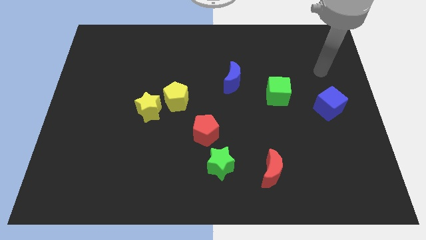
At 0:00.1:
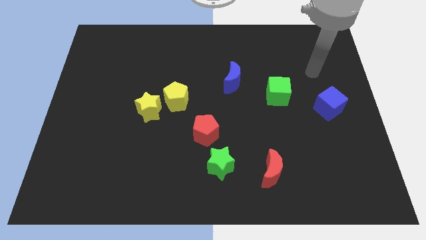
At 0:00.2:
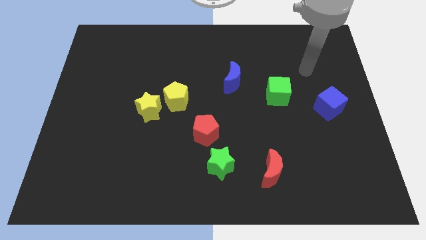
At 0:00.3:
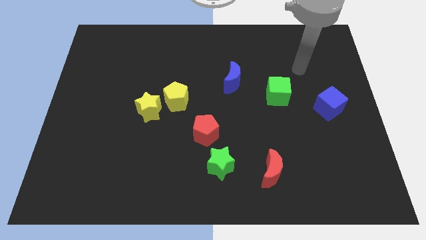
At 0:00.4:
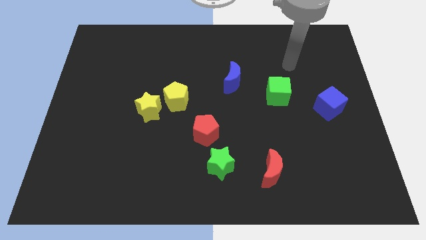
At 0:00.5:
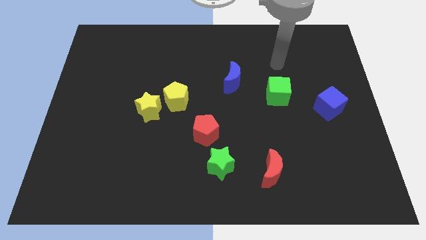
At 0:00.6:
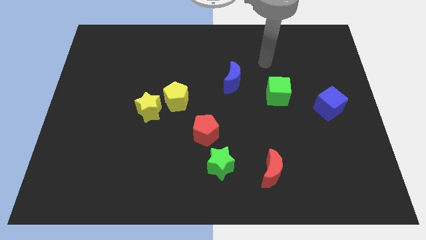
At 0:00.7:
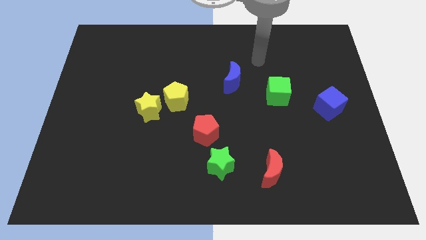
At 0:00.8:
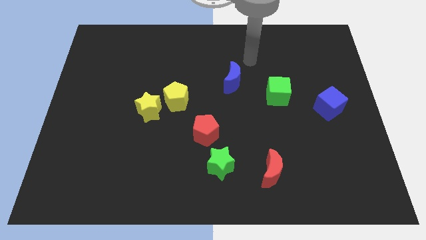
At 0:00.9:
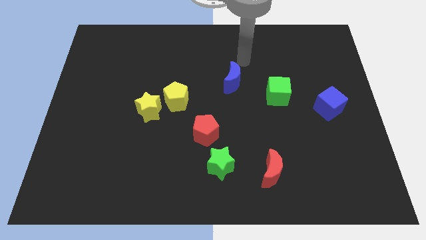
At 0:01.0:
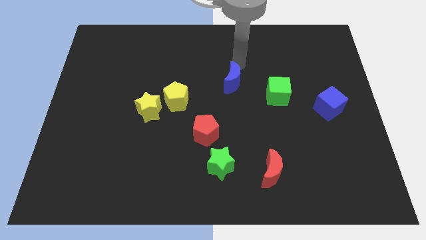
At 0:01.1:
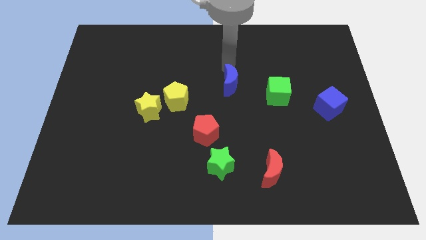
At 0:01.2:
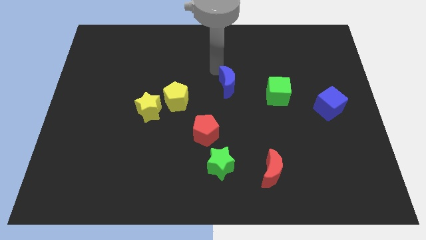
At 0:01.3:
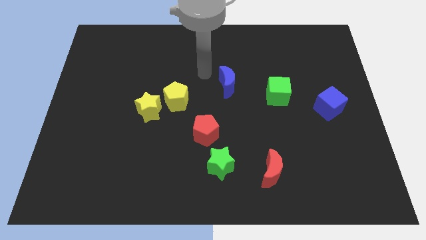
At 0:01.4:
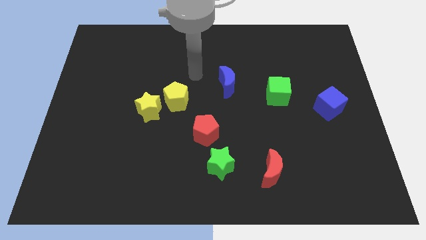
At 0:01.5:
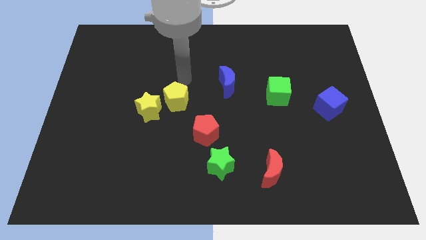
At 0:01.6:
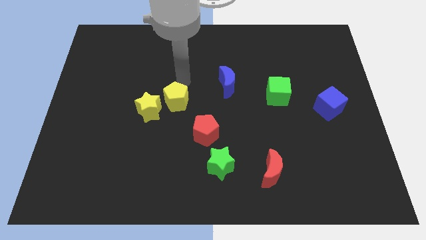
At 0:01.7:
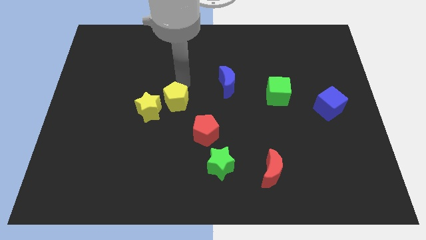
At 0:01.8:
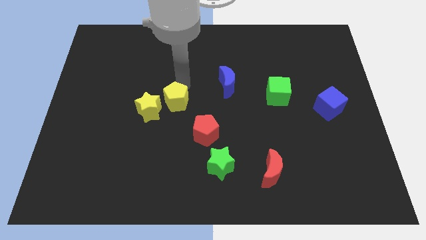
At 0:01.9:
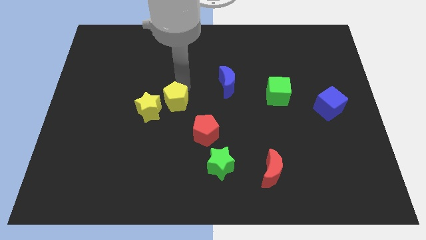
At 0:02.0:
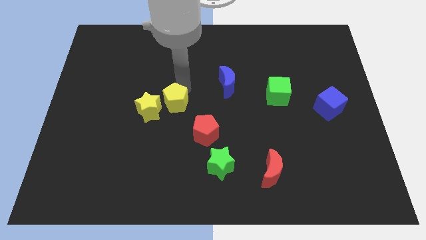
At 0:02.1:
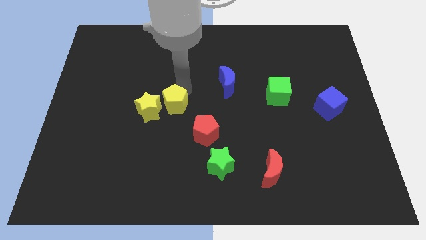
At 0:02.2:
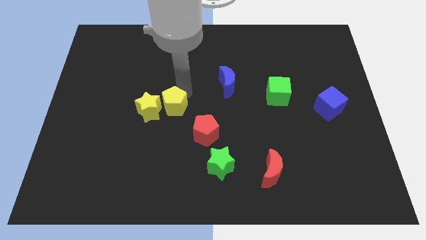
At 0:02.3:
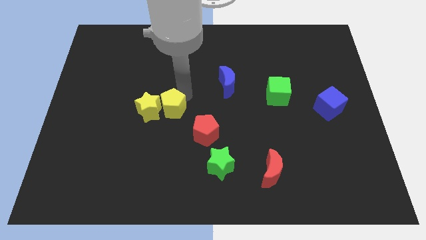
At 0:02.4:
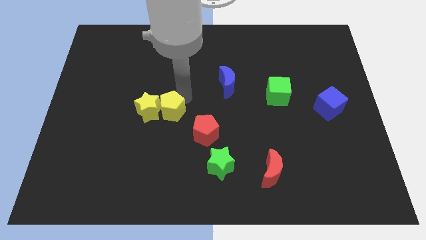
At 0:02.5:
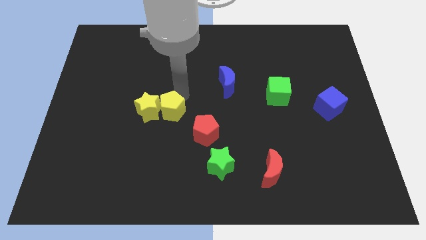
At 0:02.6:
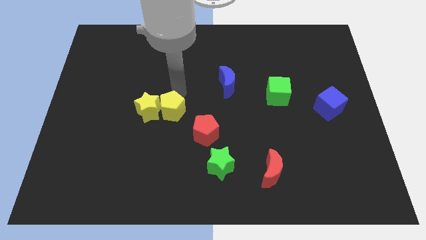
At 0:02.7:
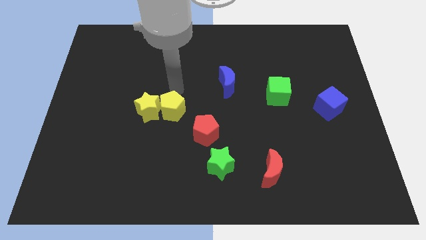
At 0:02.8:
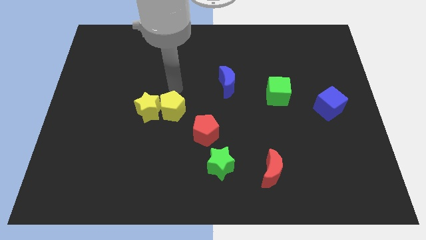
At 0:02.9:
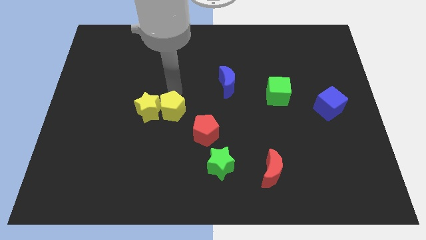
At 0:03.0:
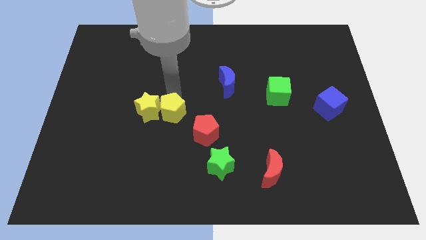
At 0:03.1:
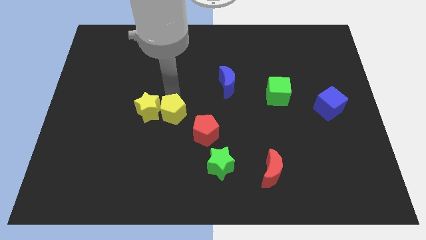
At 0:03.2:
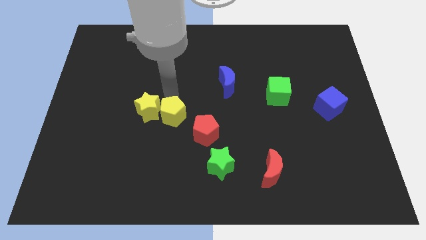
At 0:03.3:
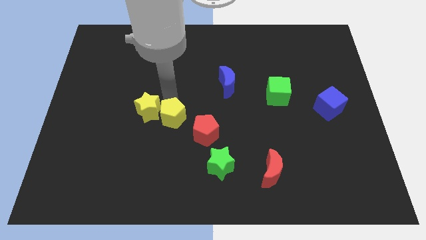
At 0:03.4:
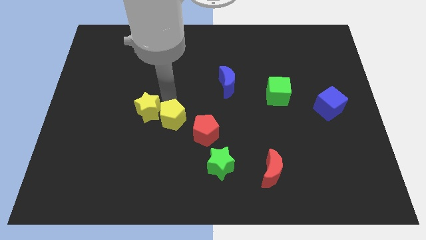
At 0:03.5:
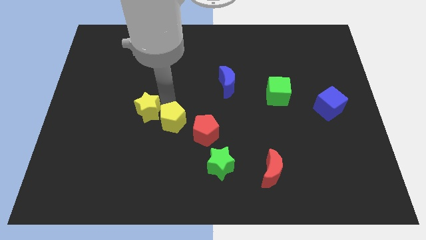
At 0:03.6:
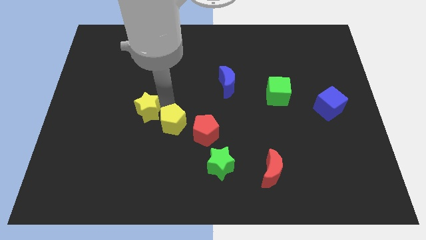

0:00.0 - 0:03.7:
slightly slide the yellow pentagon downwards

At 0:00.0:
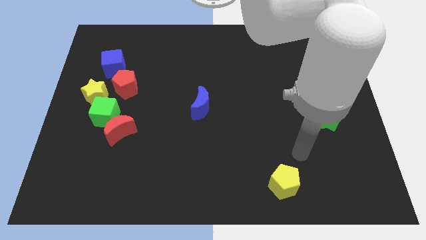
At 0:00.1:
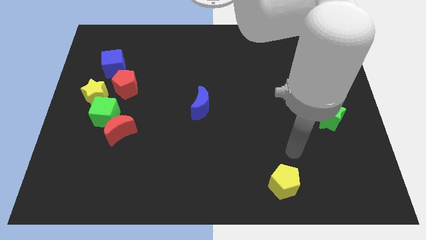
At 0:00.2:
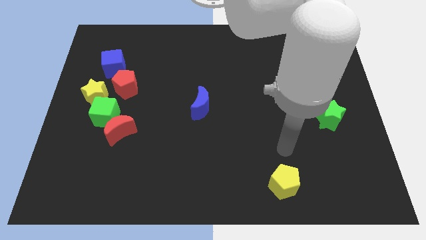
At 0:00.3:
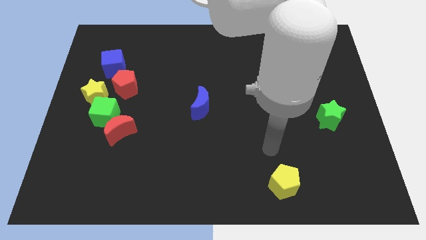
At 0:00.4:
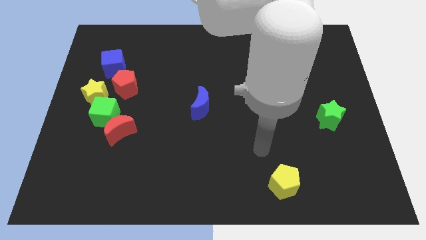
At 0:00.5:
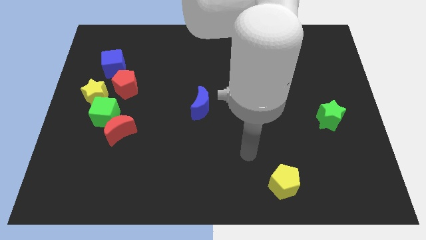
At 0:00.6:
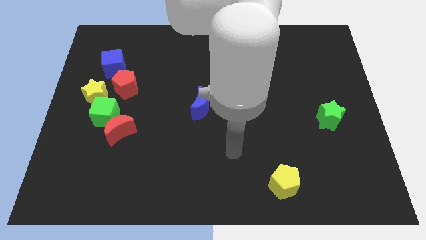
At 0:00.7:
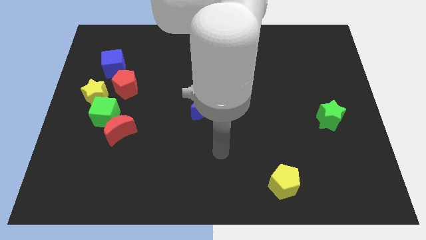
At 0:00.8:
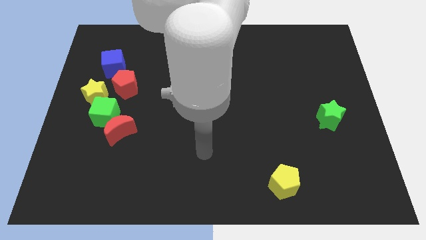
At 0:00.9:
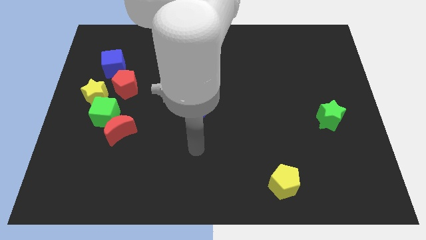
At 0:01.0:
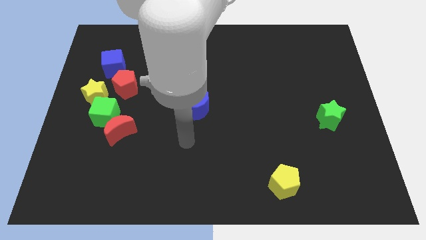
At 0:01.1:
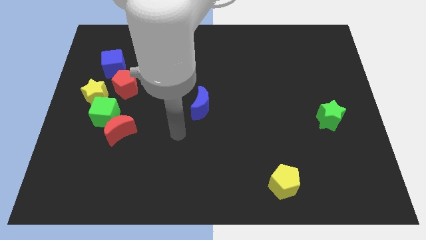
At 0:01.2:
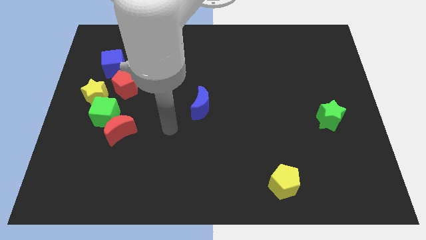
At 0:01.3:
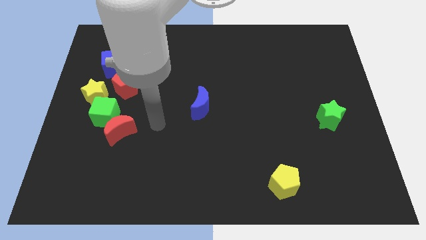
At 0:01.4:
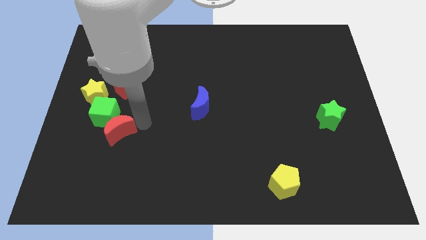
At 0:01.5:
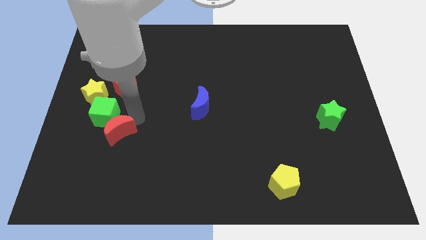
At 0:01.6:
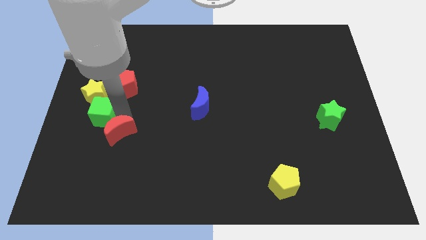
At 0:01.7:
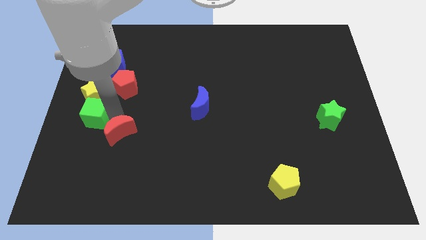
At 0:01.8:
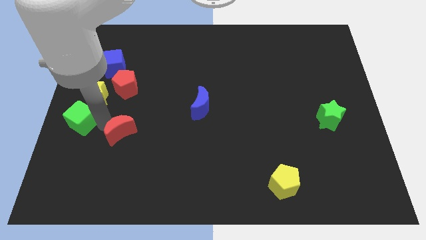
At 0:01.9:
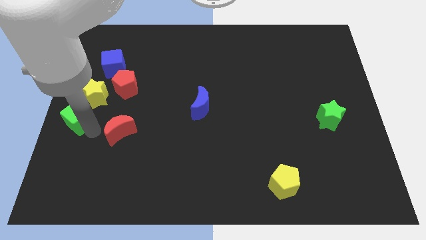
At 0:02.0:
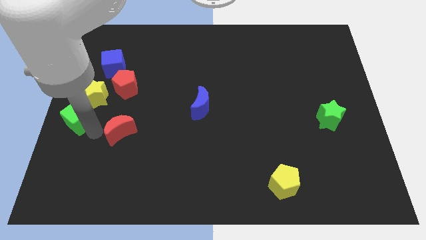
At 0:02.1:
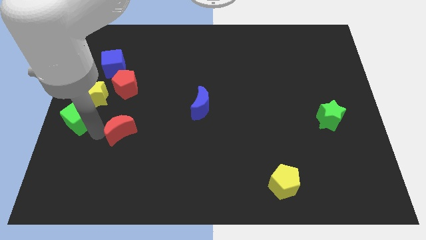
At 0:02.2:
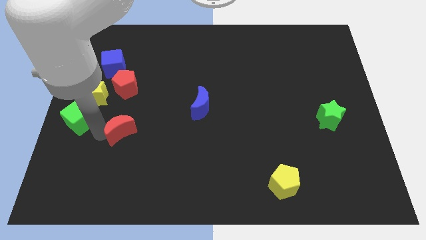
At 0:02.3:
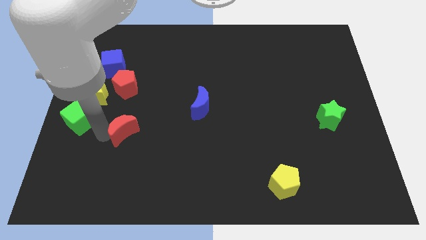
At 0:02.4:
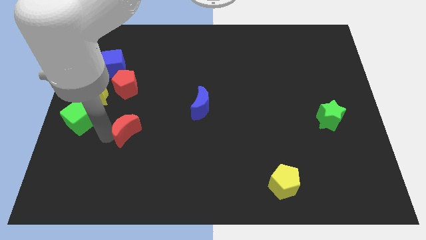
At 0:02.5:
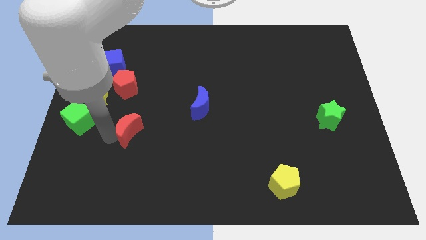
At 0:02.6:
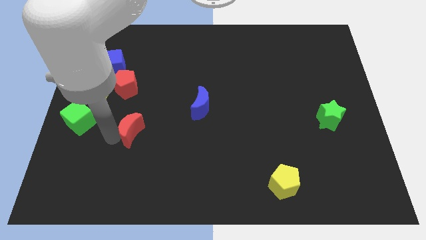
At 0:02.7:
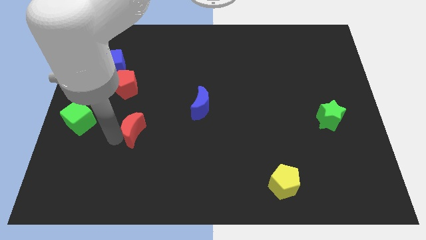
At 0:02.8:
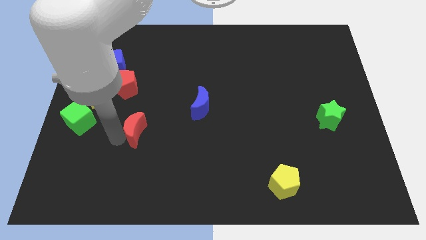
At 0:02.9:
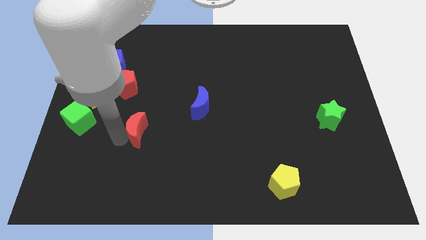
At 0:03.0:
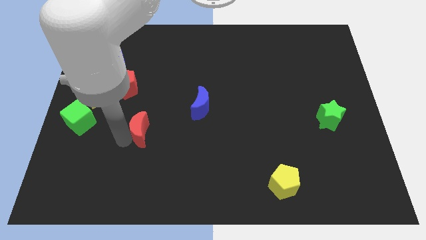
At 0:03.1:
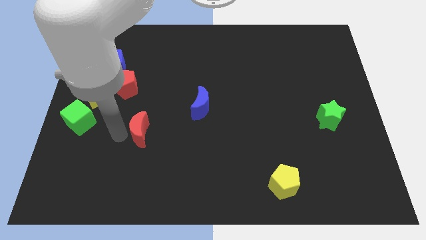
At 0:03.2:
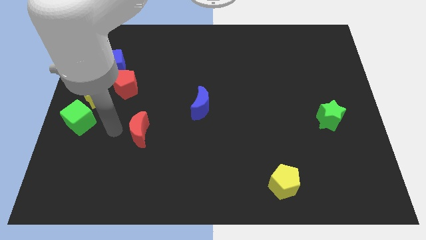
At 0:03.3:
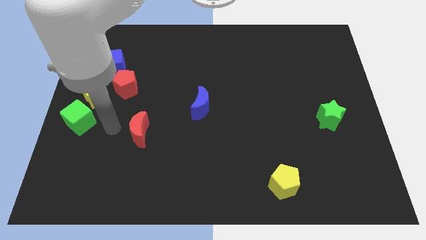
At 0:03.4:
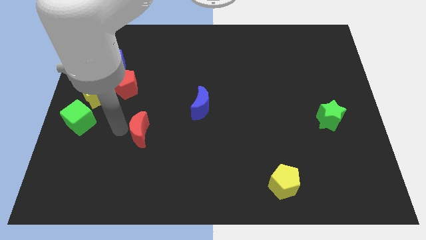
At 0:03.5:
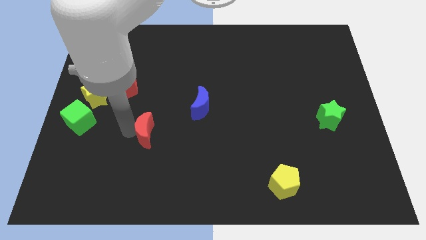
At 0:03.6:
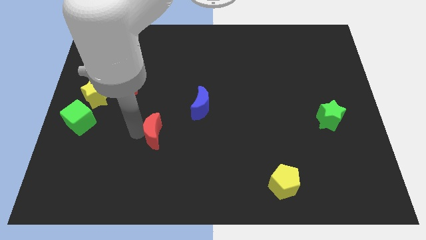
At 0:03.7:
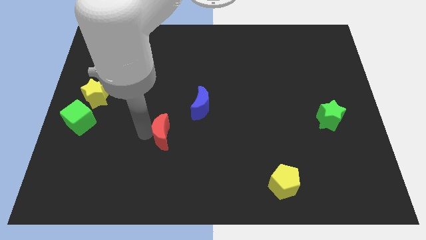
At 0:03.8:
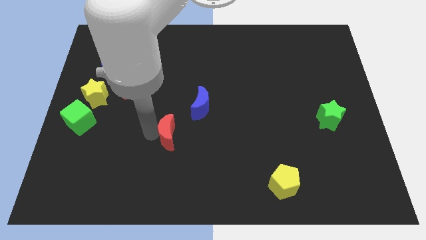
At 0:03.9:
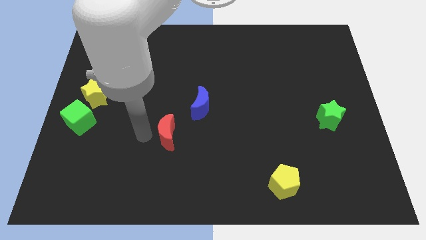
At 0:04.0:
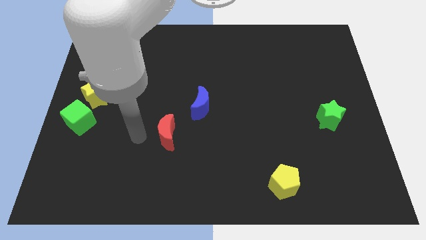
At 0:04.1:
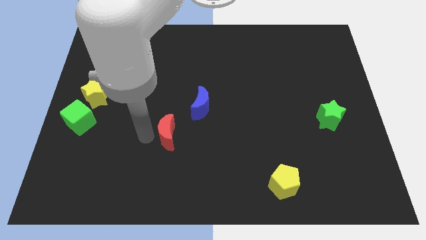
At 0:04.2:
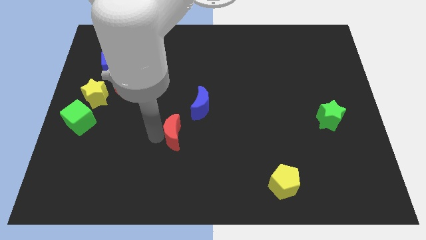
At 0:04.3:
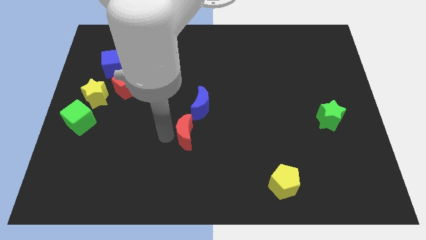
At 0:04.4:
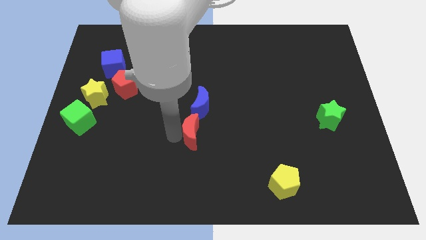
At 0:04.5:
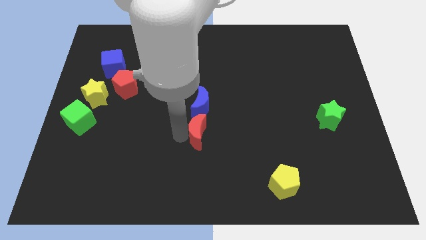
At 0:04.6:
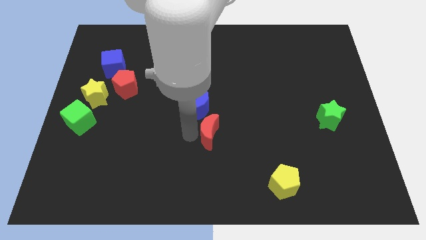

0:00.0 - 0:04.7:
push the red moon to the right
